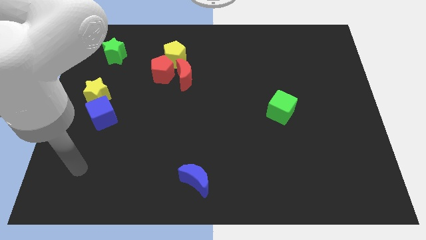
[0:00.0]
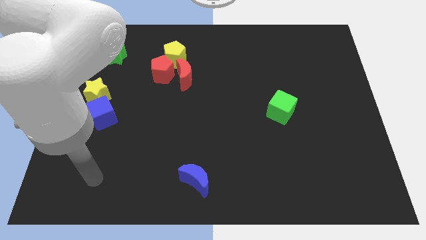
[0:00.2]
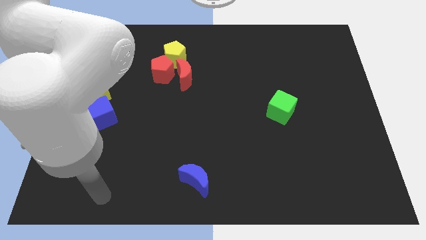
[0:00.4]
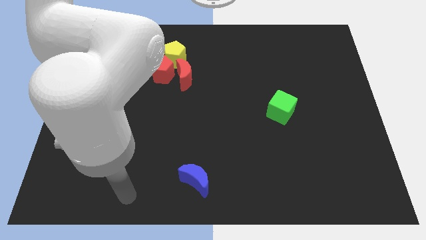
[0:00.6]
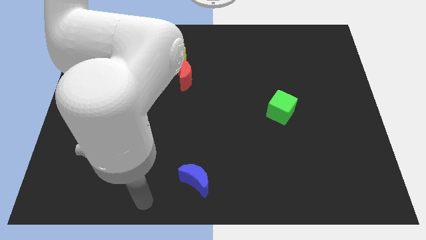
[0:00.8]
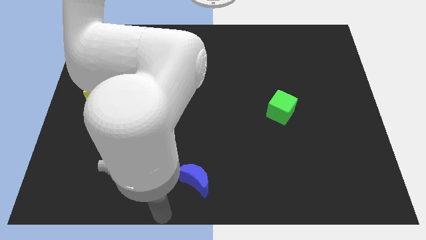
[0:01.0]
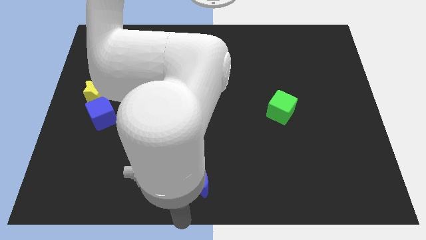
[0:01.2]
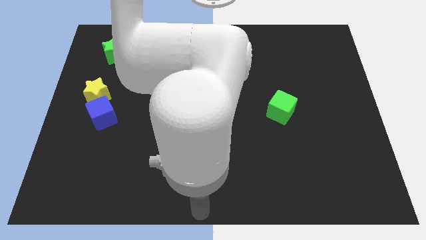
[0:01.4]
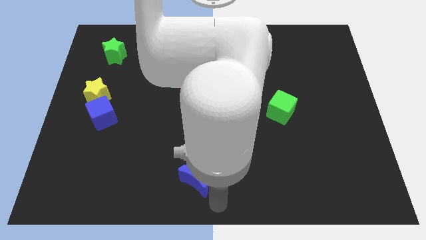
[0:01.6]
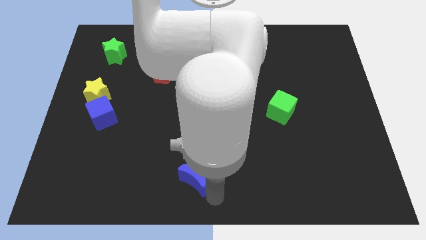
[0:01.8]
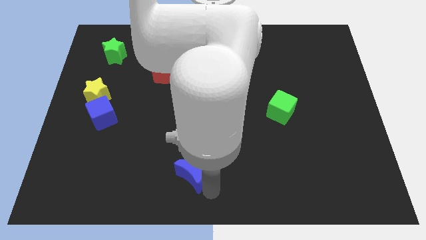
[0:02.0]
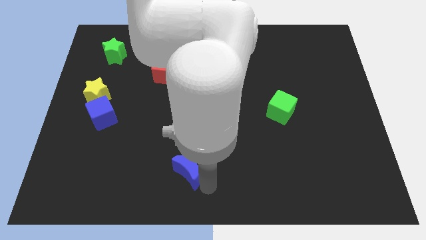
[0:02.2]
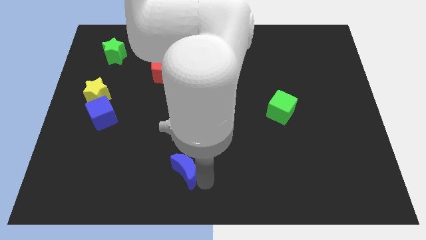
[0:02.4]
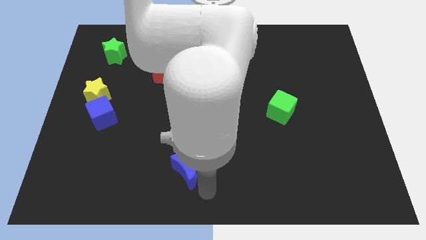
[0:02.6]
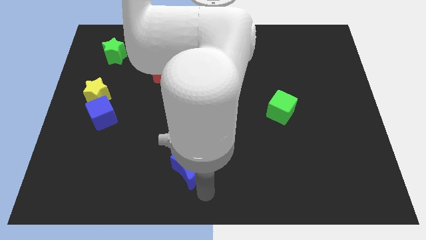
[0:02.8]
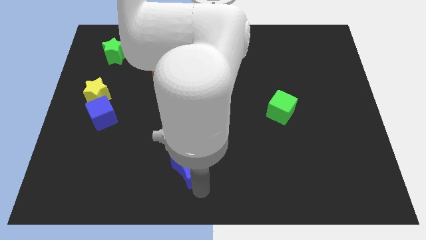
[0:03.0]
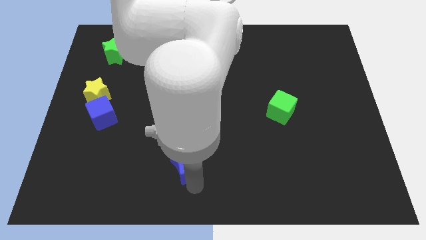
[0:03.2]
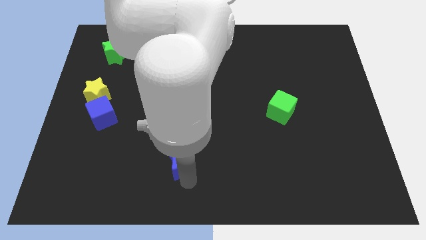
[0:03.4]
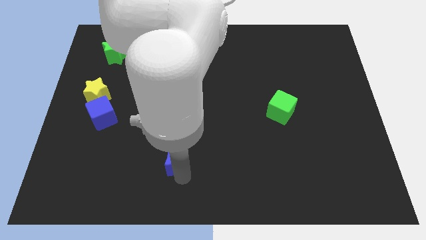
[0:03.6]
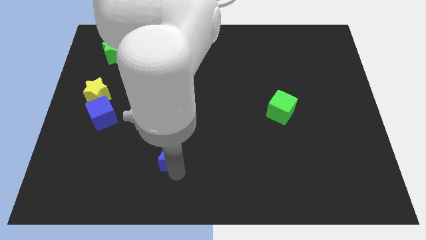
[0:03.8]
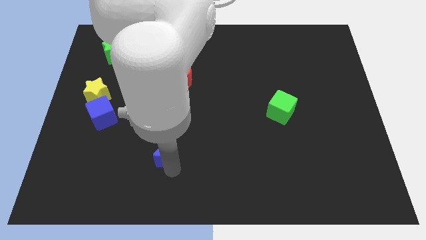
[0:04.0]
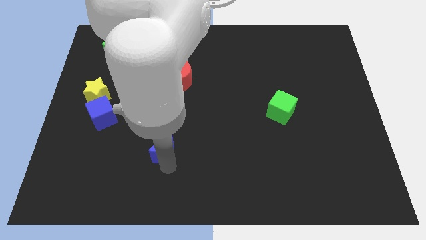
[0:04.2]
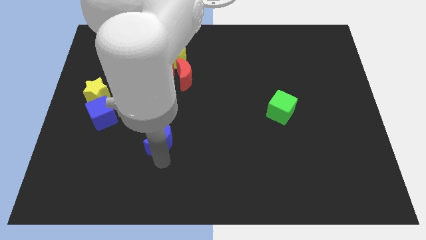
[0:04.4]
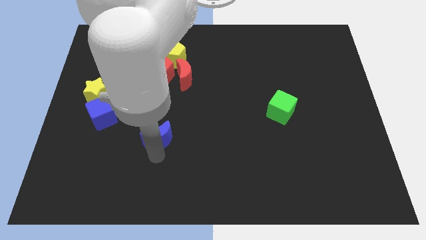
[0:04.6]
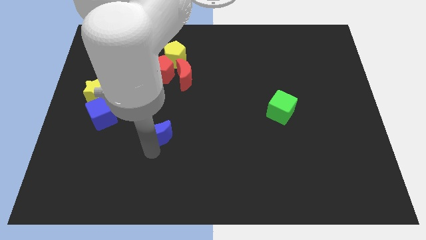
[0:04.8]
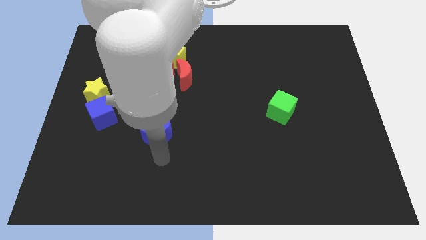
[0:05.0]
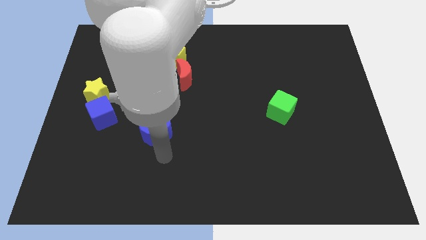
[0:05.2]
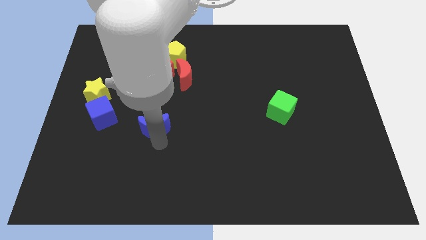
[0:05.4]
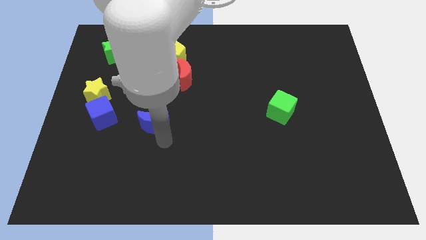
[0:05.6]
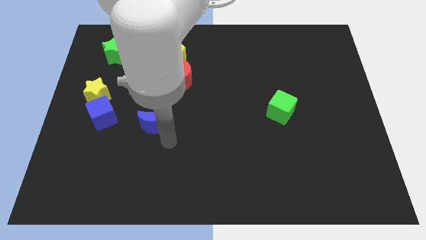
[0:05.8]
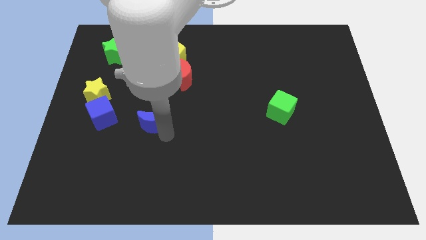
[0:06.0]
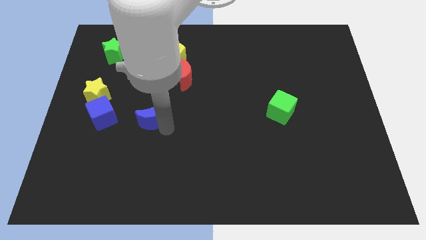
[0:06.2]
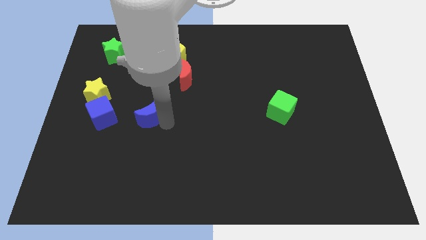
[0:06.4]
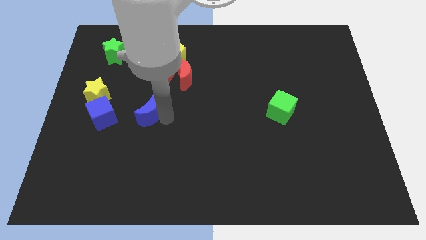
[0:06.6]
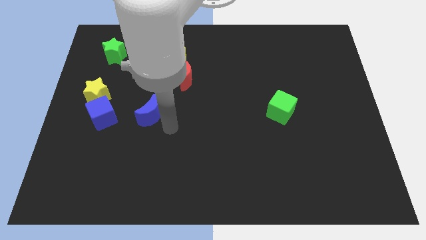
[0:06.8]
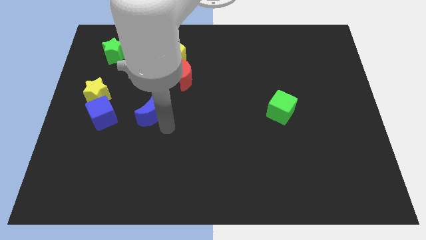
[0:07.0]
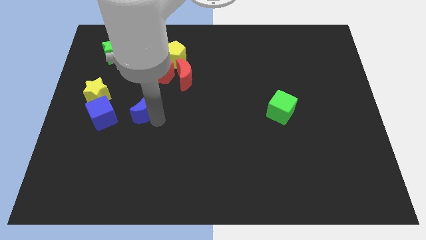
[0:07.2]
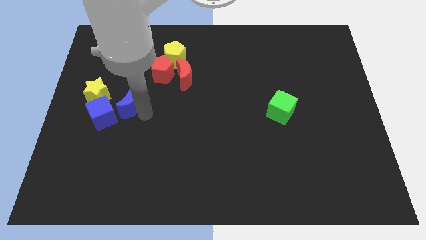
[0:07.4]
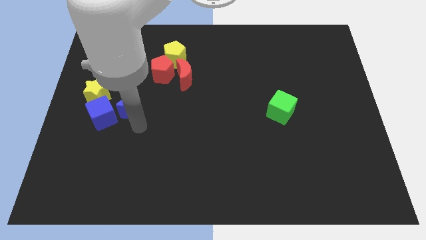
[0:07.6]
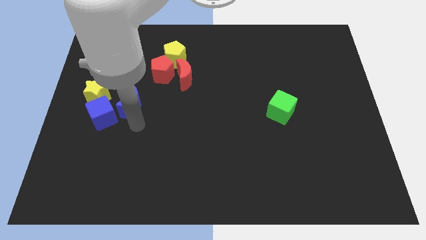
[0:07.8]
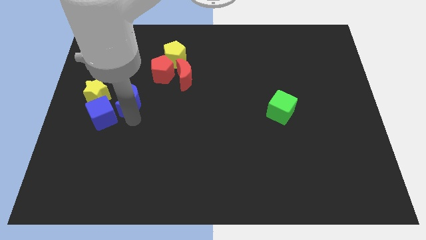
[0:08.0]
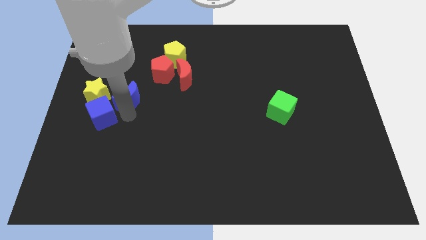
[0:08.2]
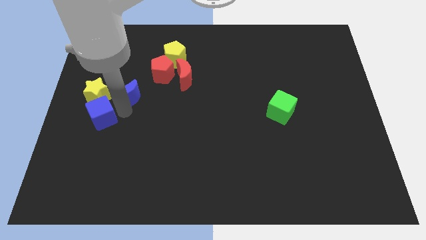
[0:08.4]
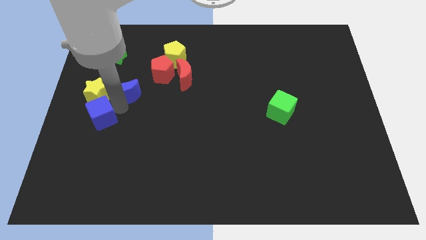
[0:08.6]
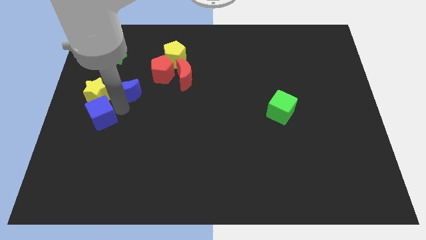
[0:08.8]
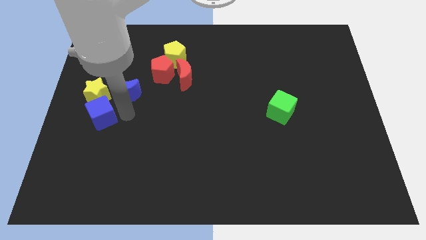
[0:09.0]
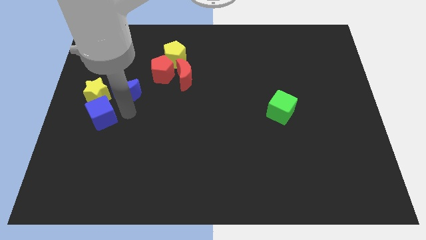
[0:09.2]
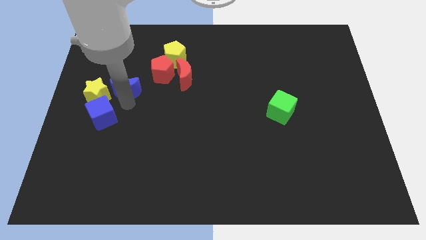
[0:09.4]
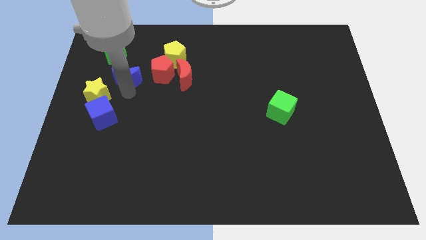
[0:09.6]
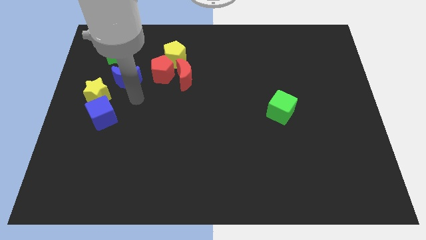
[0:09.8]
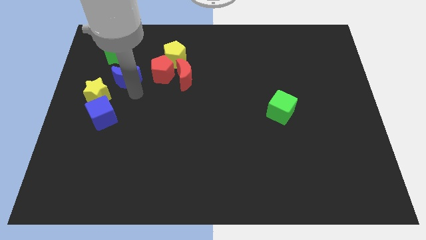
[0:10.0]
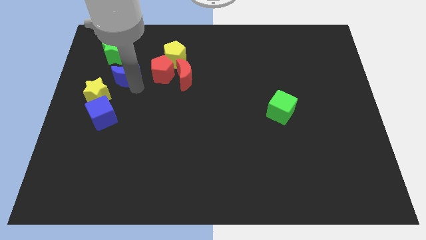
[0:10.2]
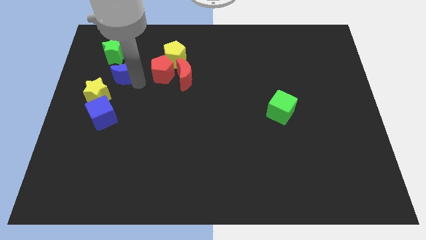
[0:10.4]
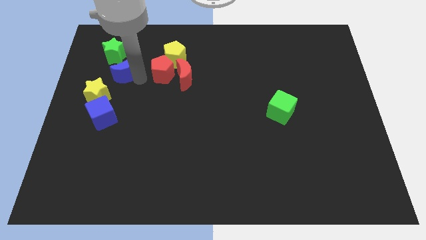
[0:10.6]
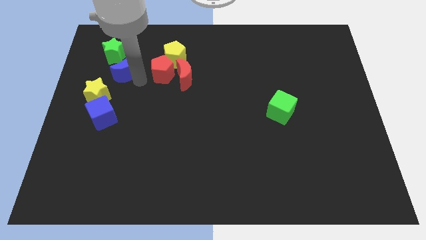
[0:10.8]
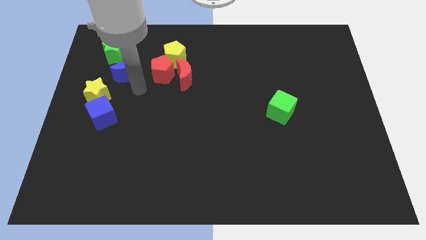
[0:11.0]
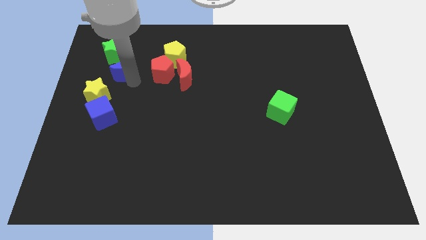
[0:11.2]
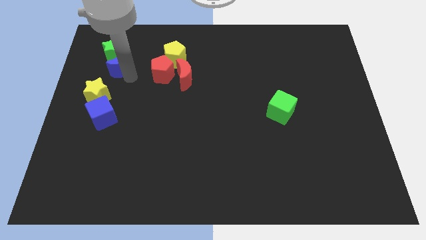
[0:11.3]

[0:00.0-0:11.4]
slide the blue moon to the green star

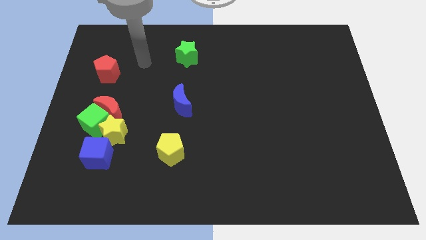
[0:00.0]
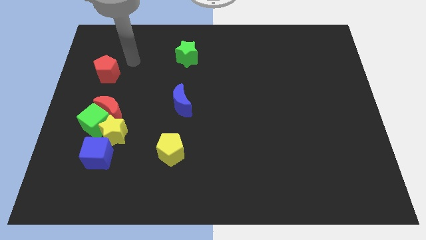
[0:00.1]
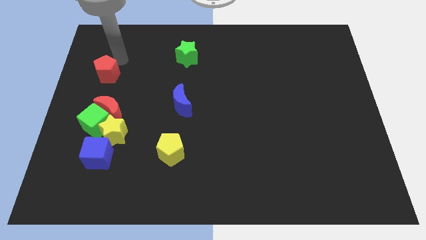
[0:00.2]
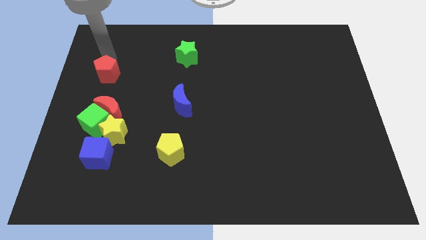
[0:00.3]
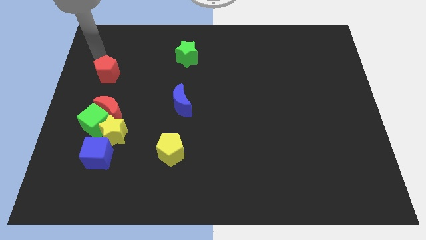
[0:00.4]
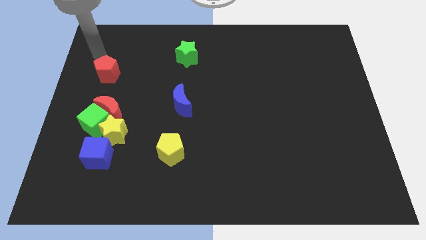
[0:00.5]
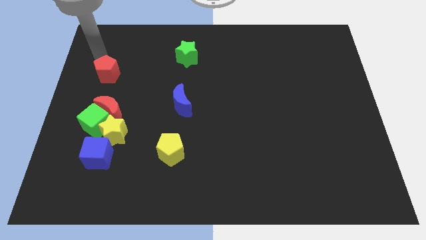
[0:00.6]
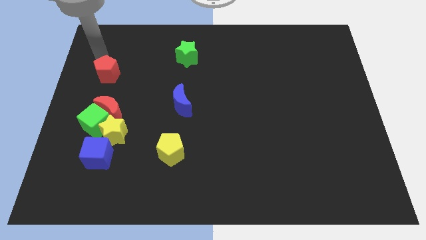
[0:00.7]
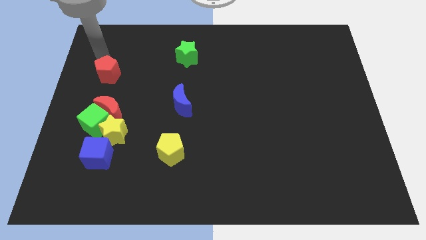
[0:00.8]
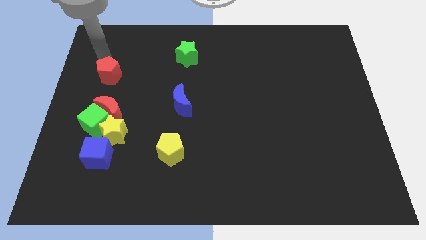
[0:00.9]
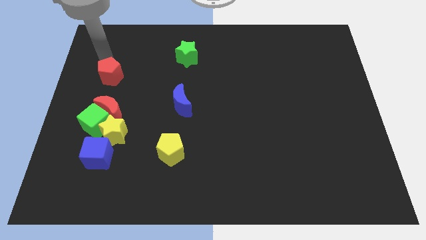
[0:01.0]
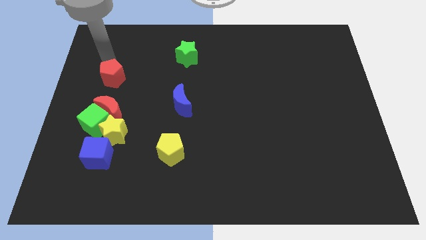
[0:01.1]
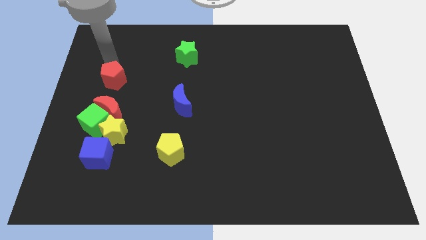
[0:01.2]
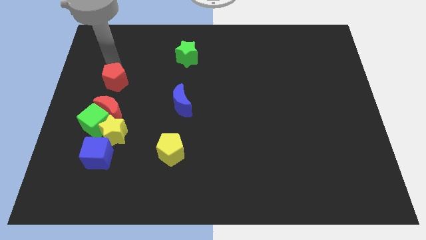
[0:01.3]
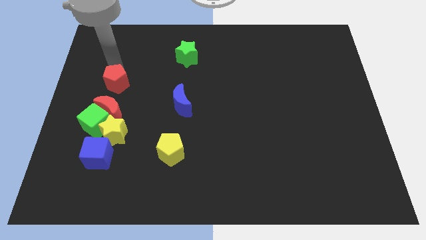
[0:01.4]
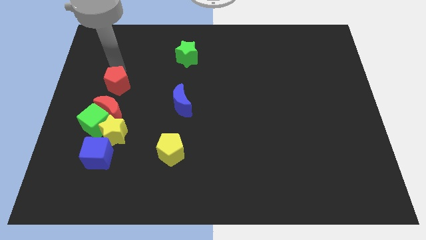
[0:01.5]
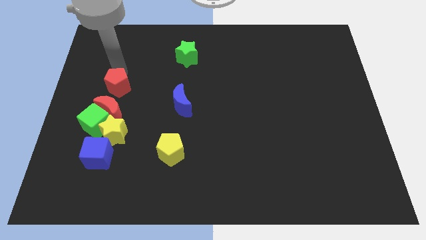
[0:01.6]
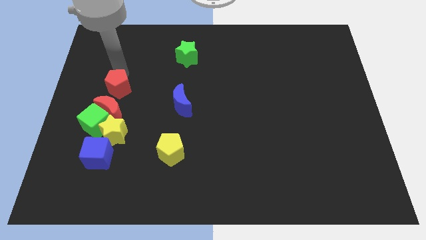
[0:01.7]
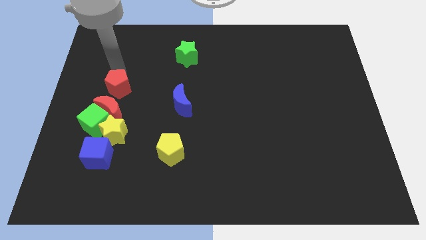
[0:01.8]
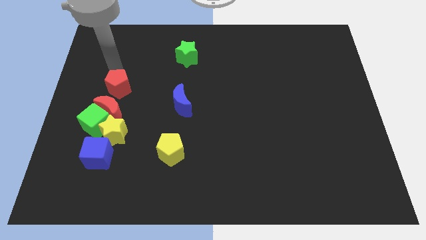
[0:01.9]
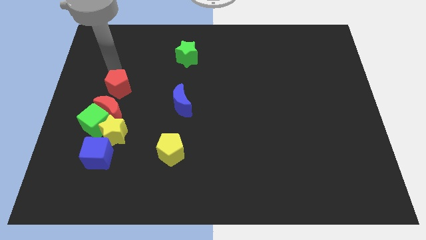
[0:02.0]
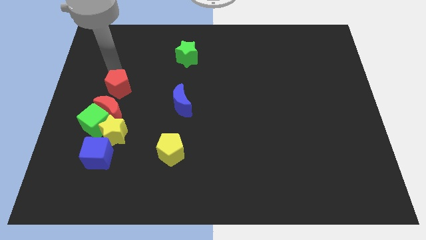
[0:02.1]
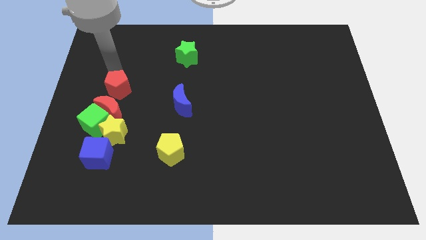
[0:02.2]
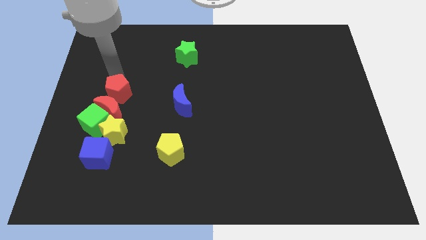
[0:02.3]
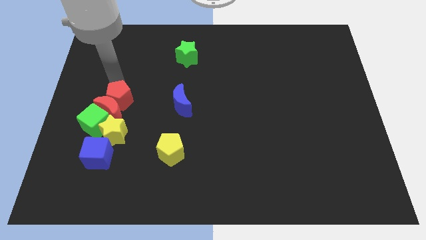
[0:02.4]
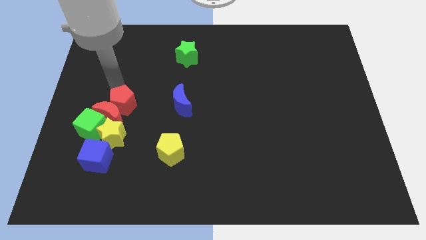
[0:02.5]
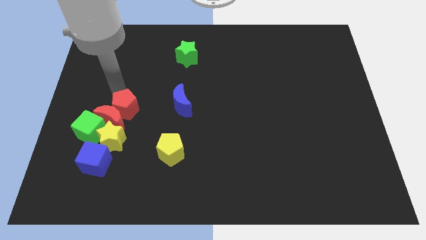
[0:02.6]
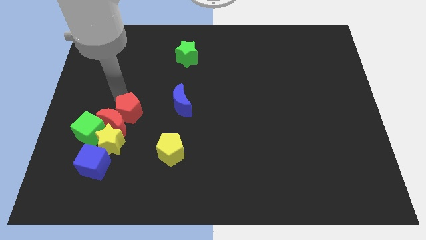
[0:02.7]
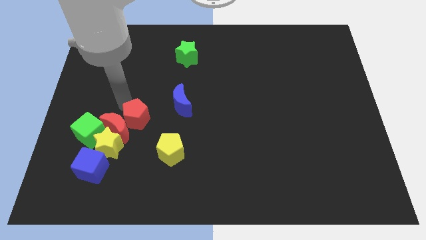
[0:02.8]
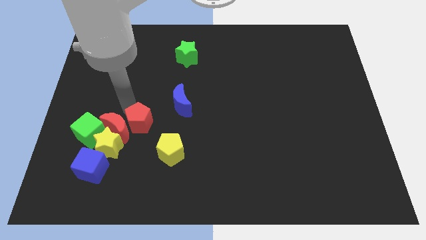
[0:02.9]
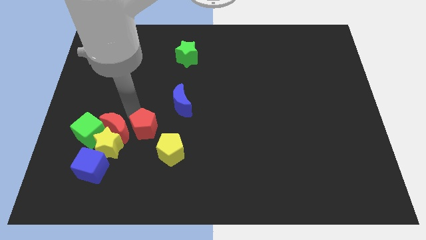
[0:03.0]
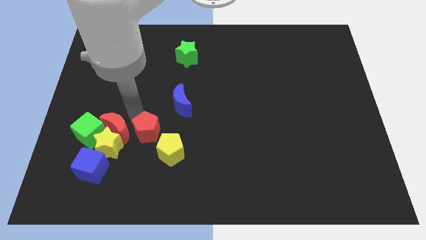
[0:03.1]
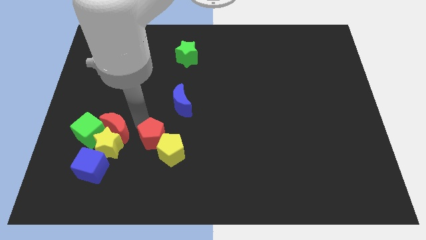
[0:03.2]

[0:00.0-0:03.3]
put the red pentagon close to the yellow pentagon
